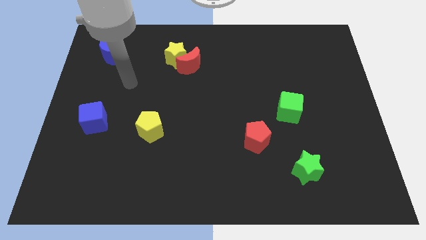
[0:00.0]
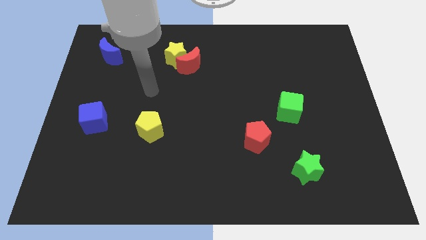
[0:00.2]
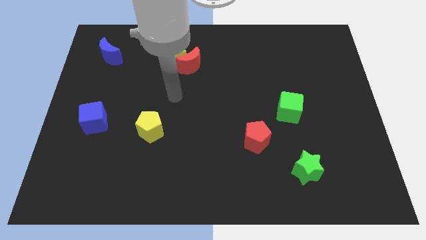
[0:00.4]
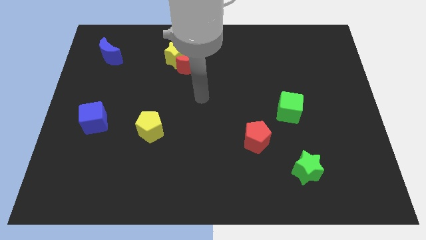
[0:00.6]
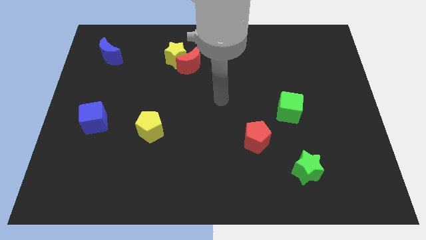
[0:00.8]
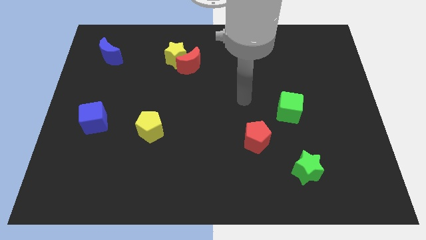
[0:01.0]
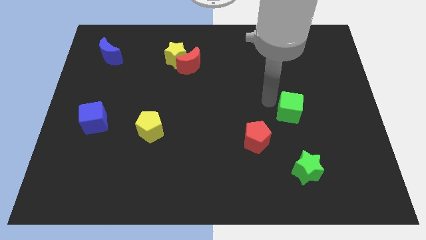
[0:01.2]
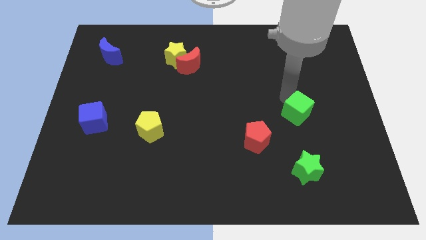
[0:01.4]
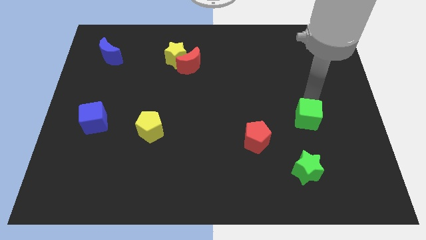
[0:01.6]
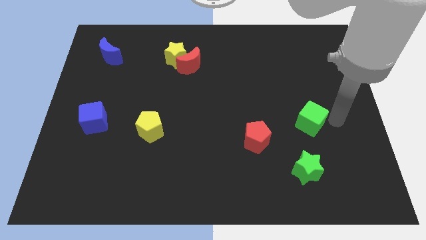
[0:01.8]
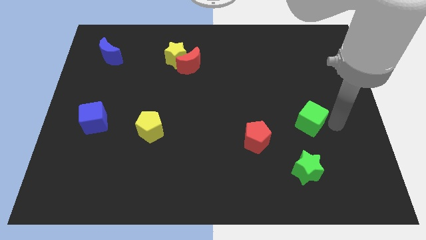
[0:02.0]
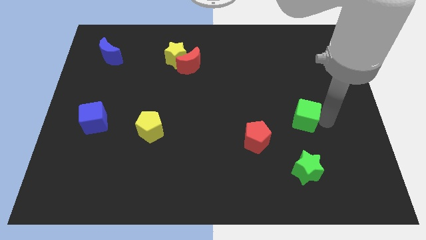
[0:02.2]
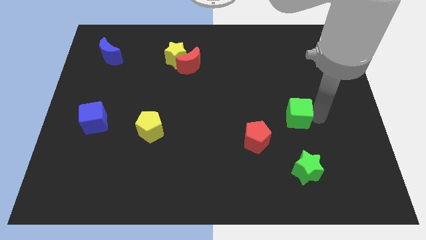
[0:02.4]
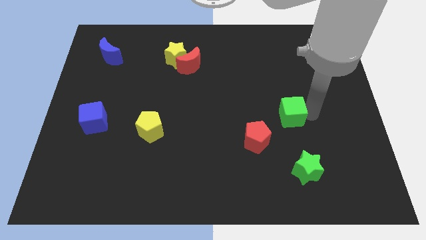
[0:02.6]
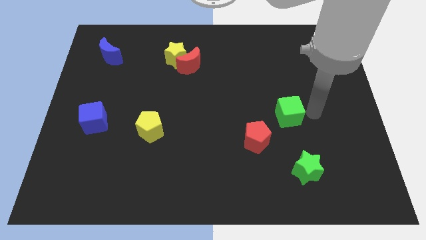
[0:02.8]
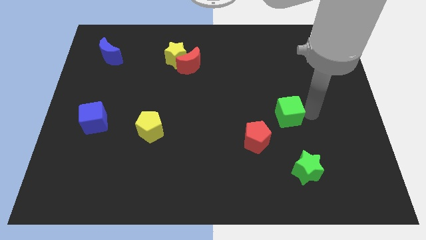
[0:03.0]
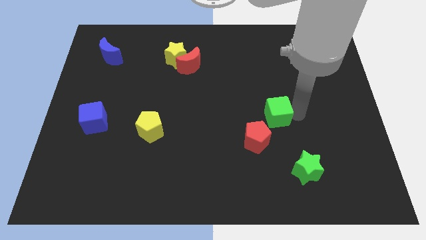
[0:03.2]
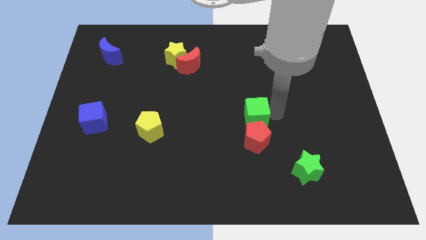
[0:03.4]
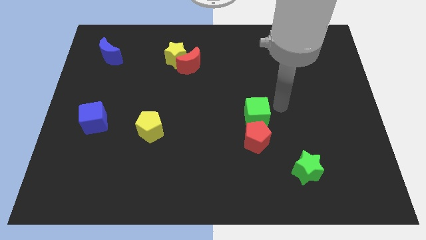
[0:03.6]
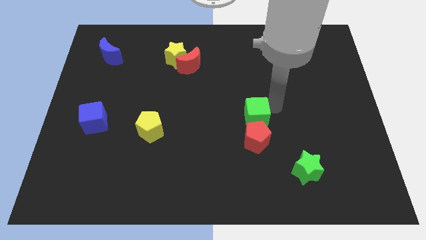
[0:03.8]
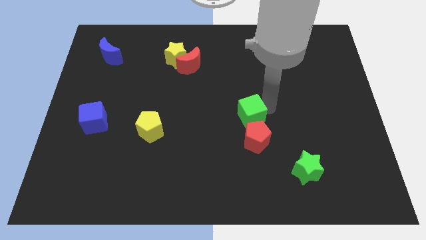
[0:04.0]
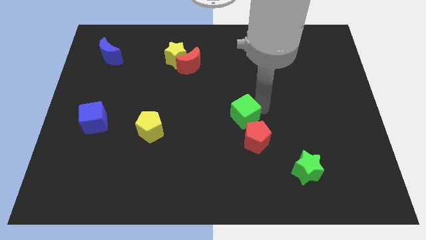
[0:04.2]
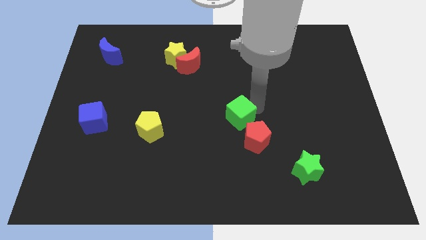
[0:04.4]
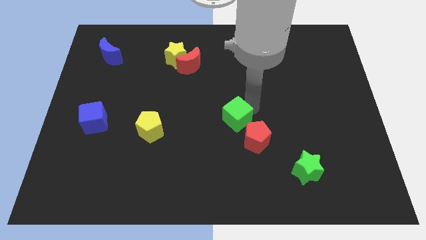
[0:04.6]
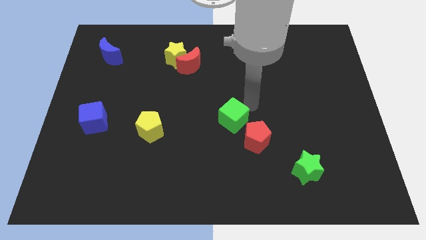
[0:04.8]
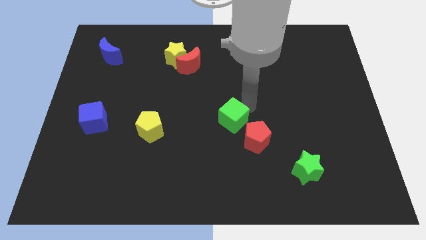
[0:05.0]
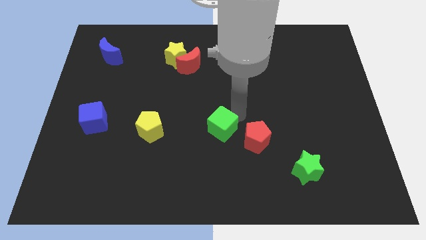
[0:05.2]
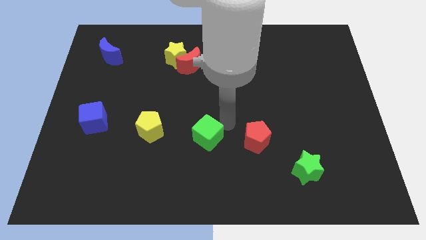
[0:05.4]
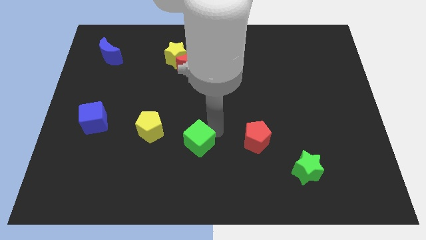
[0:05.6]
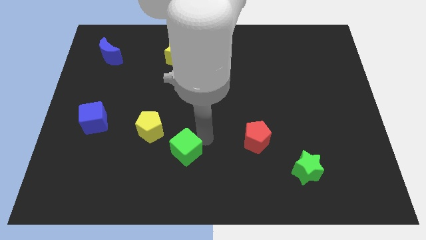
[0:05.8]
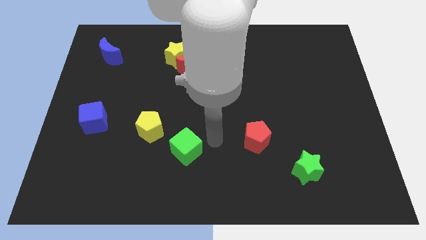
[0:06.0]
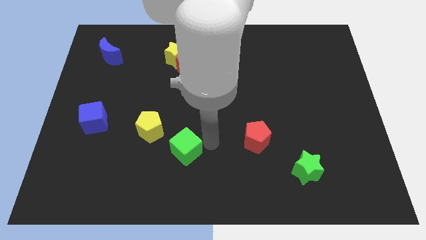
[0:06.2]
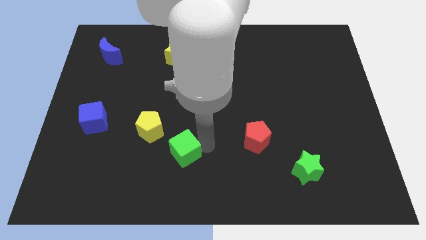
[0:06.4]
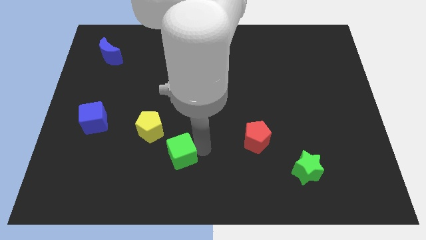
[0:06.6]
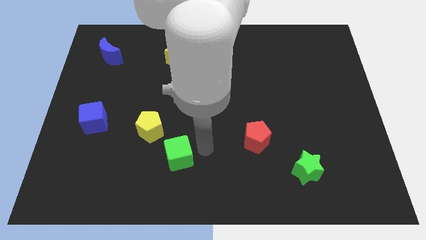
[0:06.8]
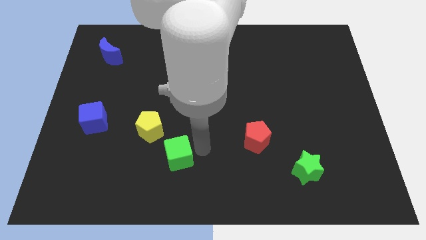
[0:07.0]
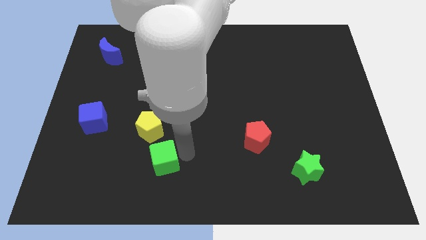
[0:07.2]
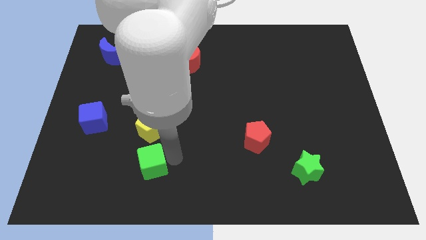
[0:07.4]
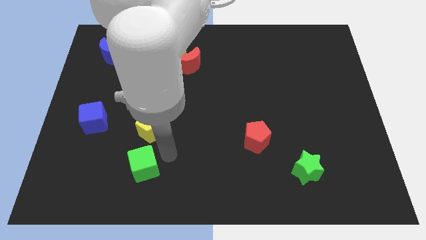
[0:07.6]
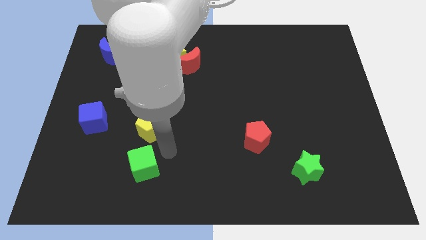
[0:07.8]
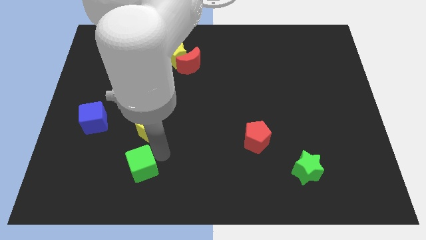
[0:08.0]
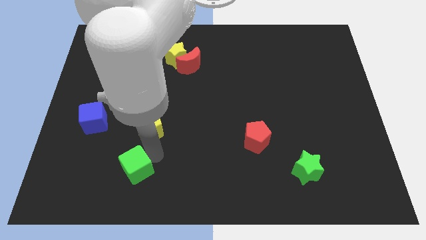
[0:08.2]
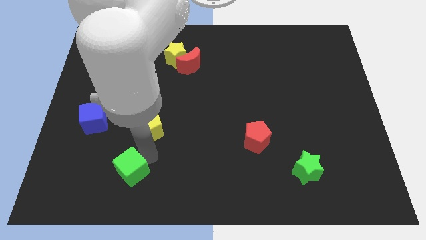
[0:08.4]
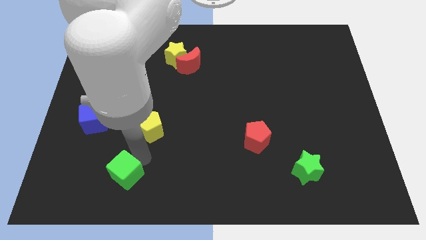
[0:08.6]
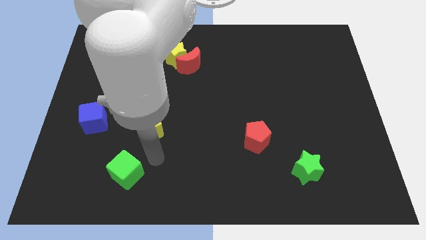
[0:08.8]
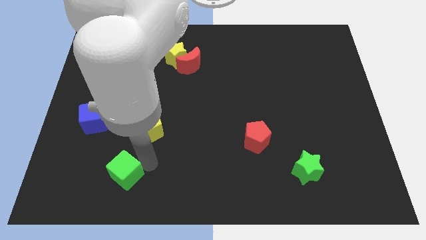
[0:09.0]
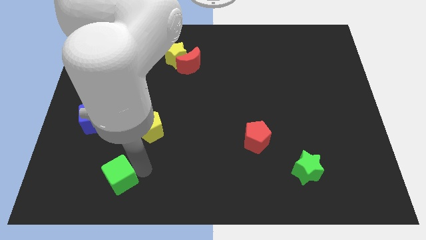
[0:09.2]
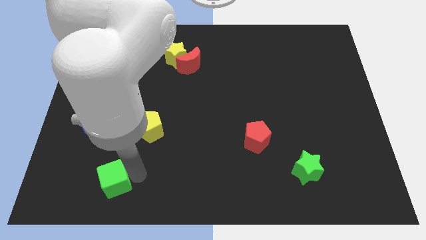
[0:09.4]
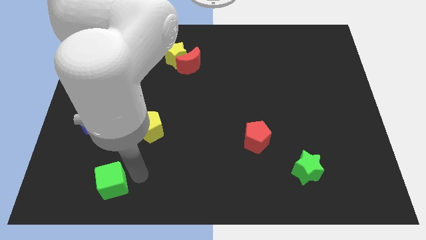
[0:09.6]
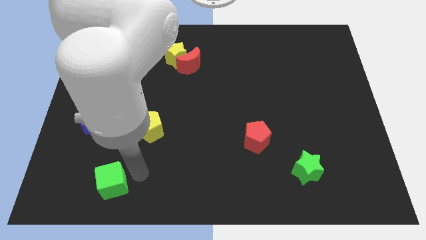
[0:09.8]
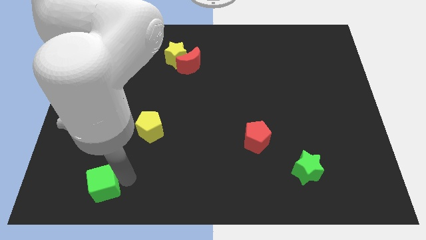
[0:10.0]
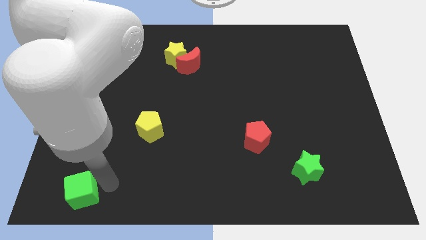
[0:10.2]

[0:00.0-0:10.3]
put the green cube to the bottom left corner
